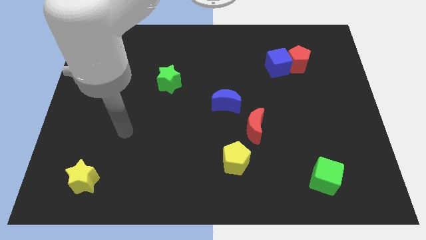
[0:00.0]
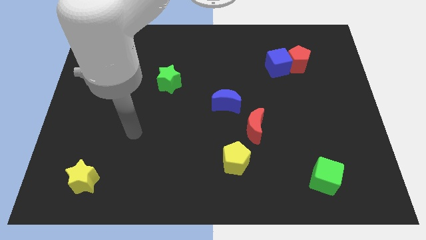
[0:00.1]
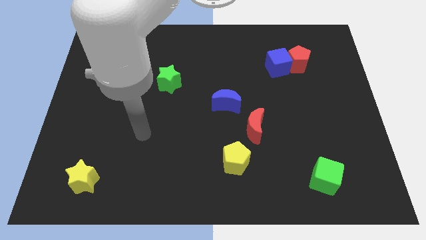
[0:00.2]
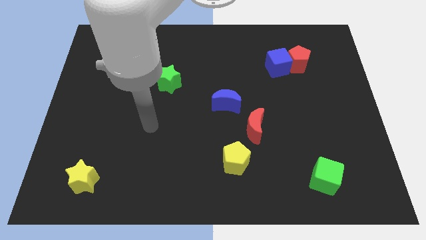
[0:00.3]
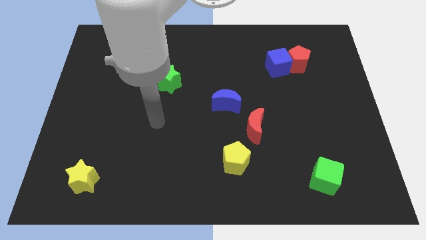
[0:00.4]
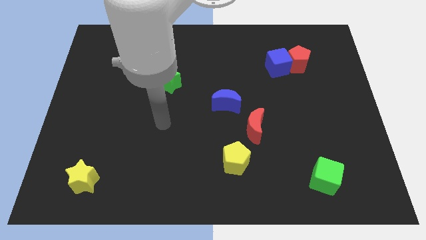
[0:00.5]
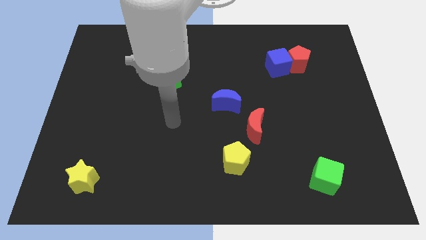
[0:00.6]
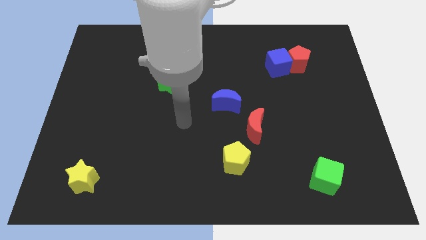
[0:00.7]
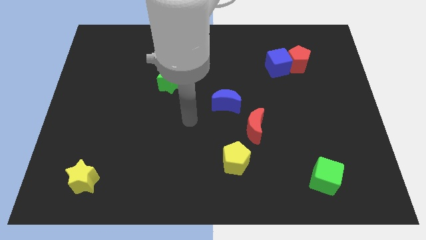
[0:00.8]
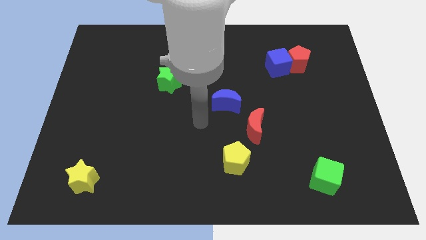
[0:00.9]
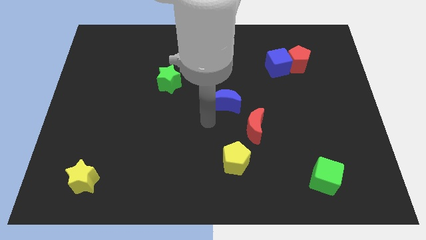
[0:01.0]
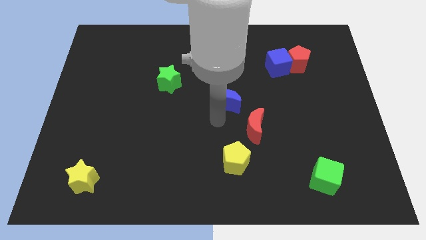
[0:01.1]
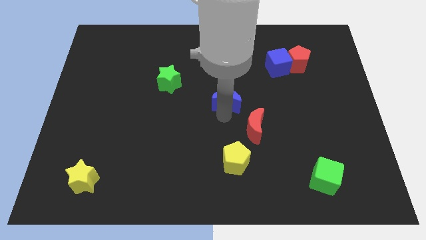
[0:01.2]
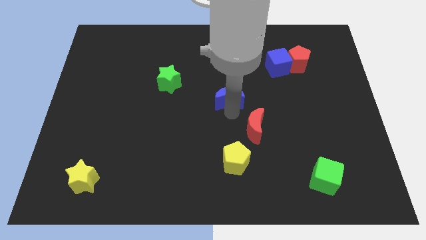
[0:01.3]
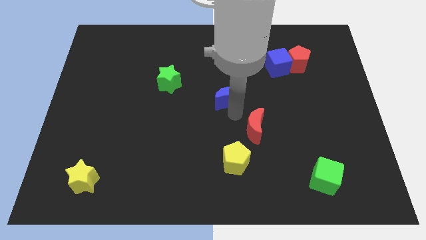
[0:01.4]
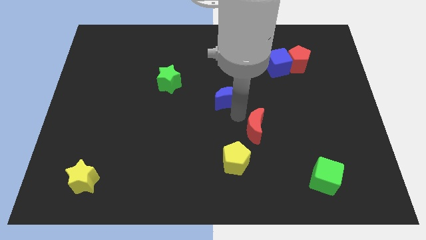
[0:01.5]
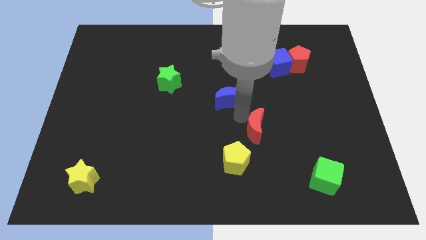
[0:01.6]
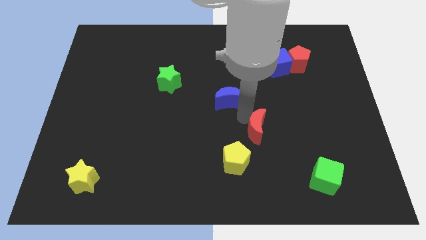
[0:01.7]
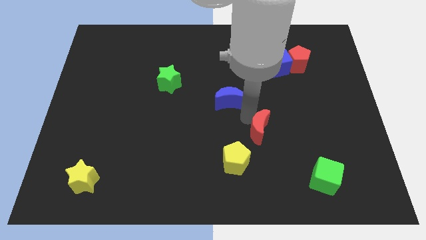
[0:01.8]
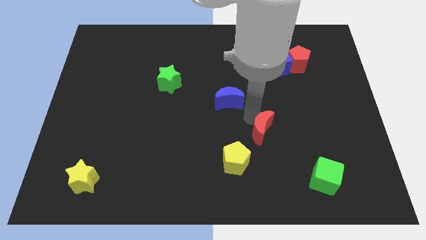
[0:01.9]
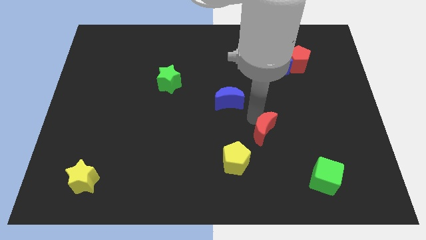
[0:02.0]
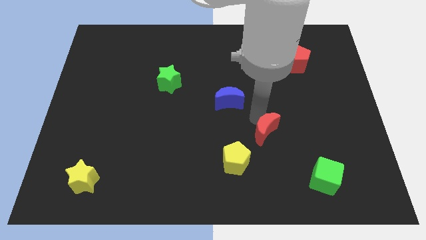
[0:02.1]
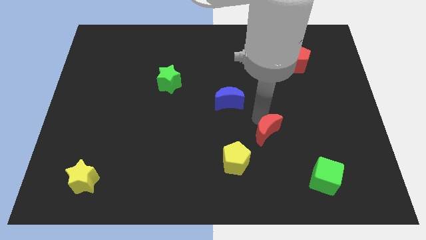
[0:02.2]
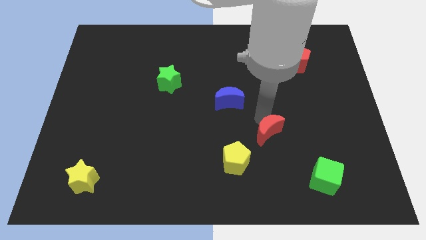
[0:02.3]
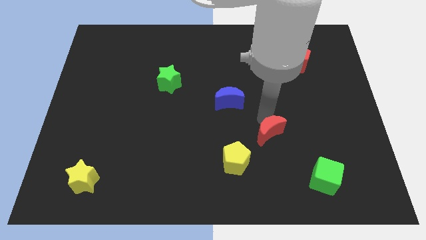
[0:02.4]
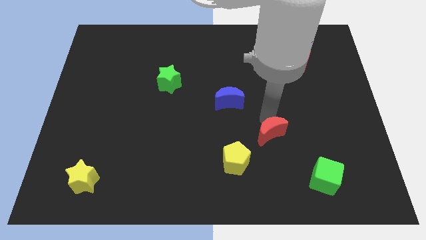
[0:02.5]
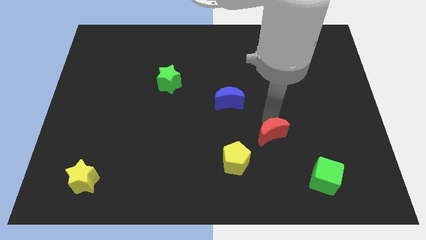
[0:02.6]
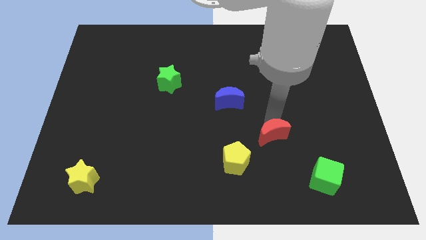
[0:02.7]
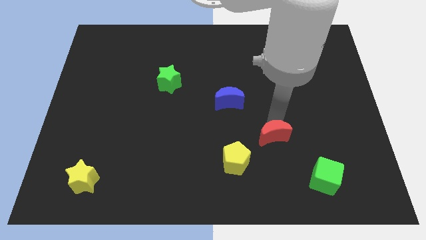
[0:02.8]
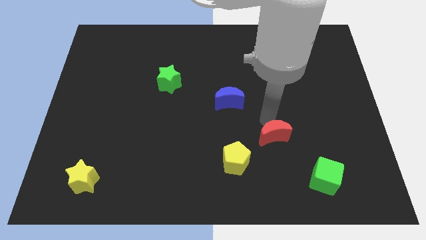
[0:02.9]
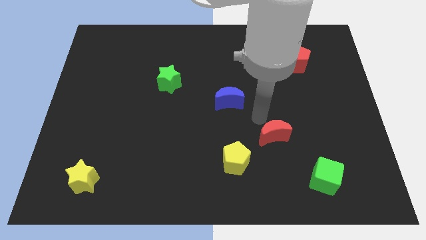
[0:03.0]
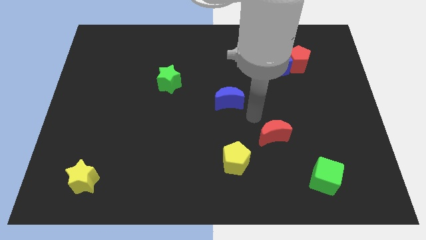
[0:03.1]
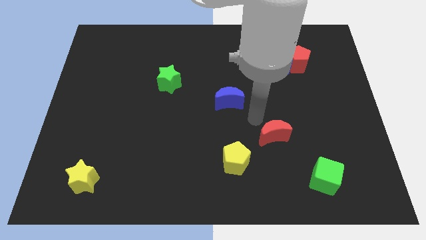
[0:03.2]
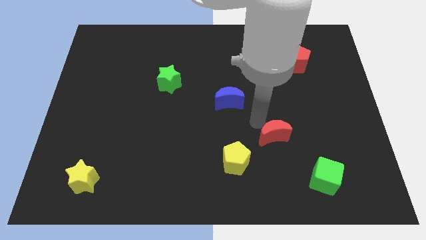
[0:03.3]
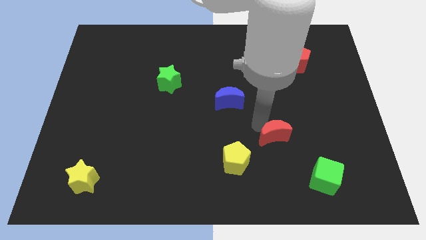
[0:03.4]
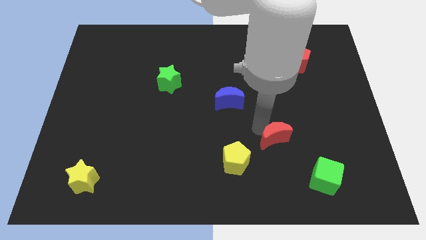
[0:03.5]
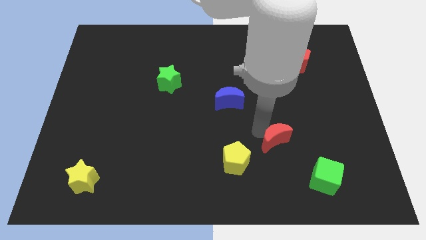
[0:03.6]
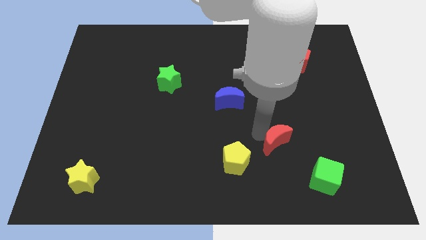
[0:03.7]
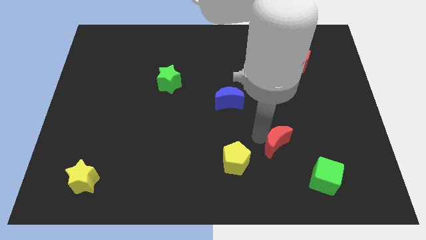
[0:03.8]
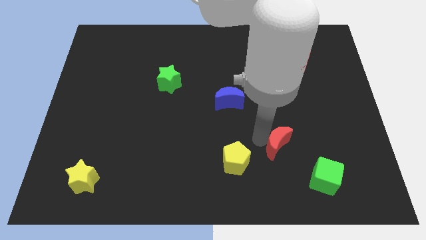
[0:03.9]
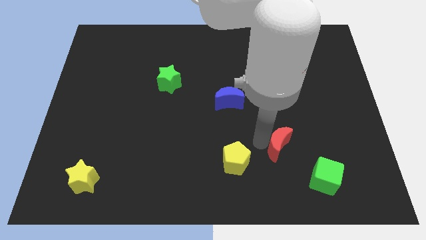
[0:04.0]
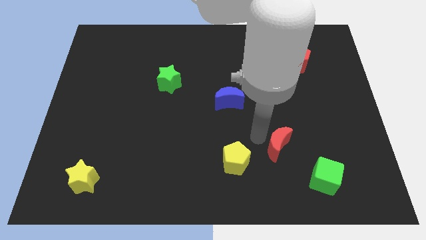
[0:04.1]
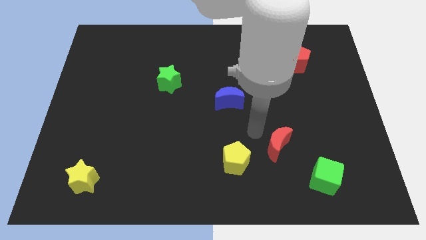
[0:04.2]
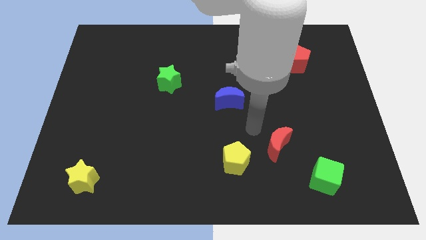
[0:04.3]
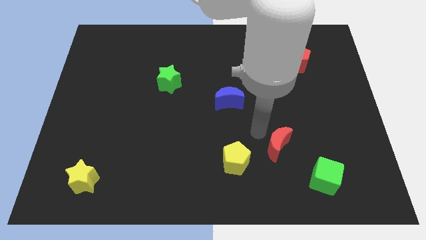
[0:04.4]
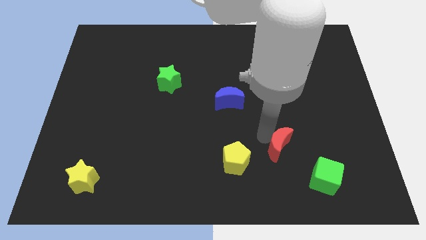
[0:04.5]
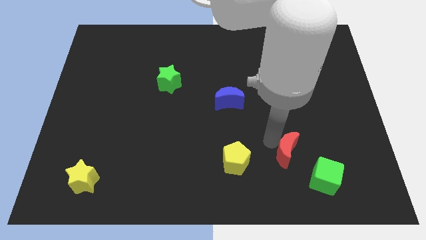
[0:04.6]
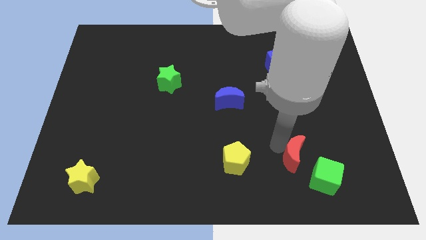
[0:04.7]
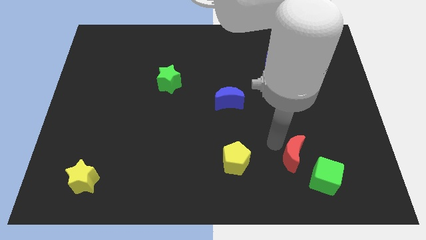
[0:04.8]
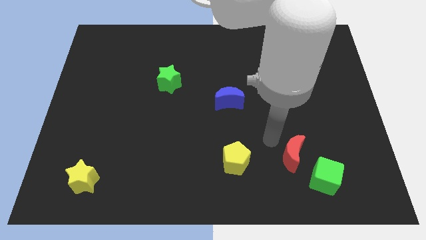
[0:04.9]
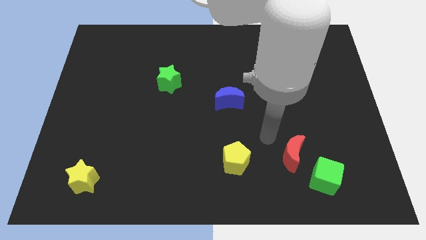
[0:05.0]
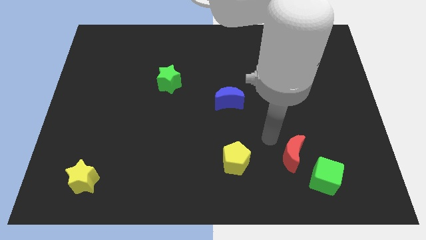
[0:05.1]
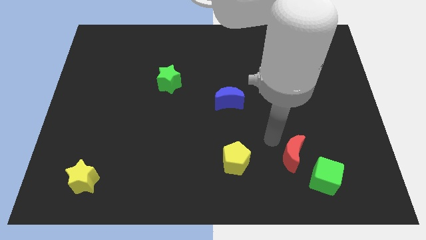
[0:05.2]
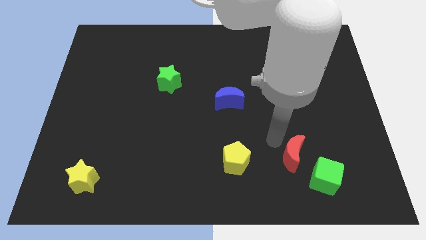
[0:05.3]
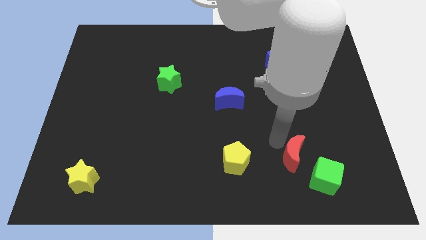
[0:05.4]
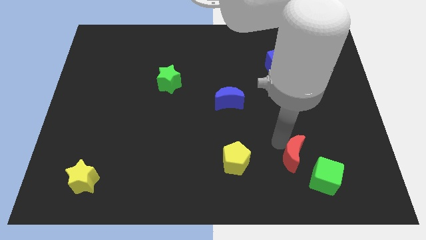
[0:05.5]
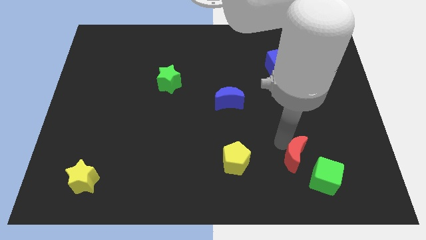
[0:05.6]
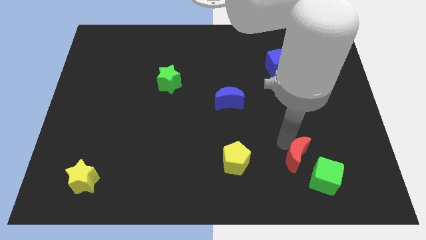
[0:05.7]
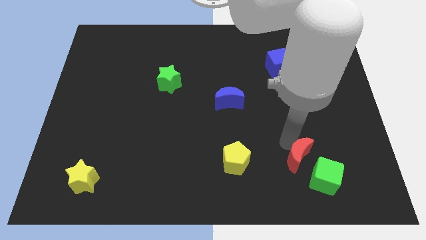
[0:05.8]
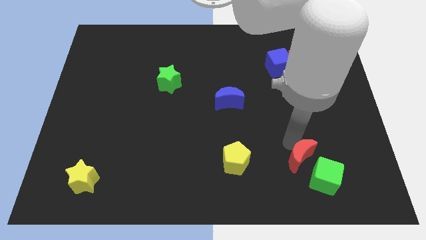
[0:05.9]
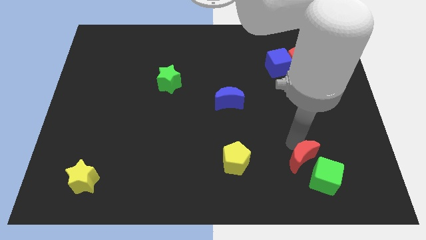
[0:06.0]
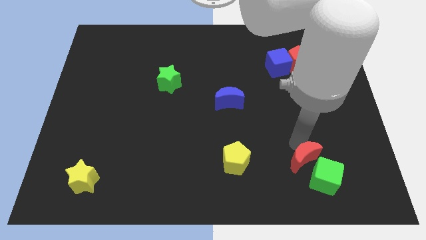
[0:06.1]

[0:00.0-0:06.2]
slide the red moon to the green cube
